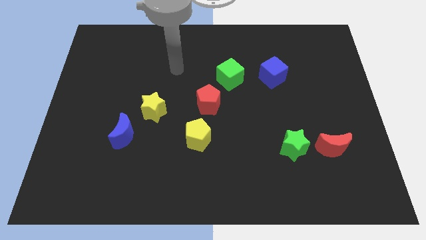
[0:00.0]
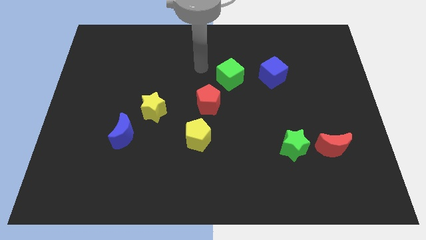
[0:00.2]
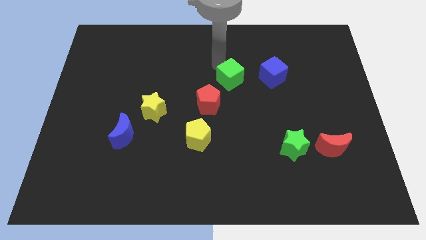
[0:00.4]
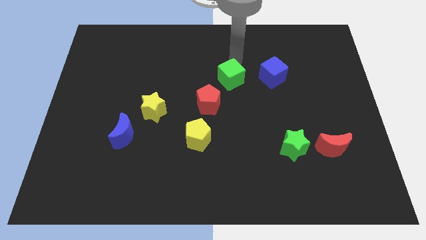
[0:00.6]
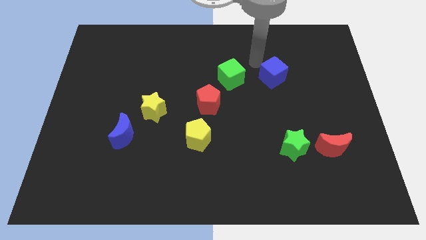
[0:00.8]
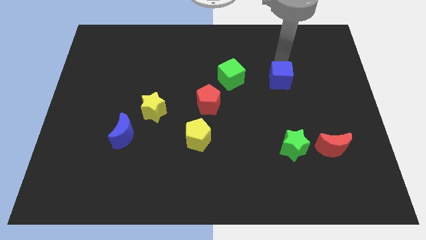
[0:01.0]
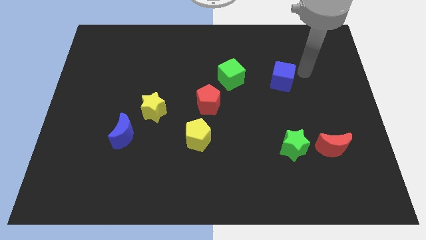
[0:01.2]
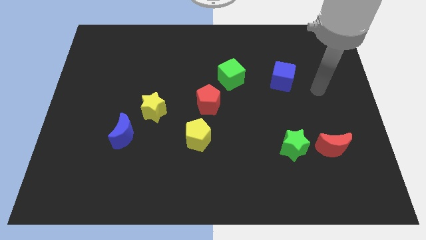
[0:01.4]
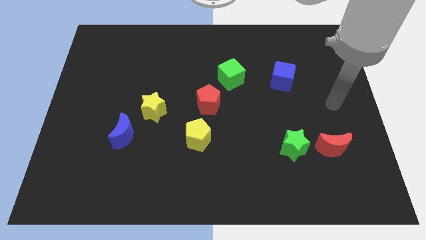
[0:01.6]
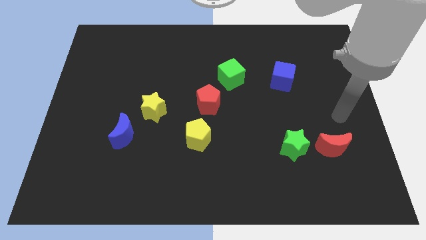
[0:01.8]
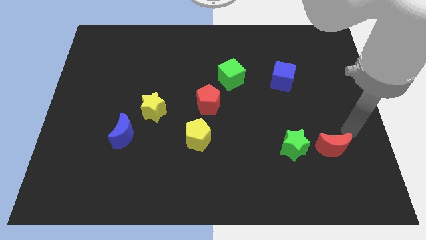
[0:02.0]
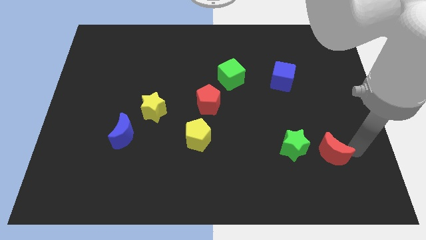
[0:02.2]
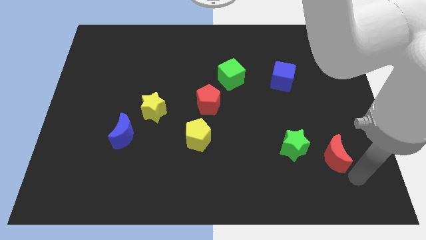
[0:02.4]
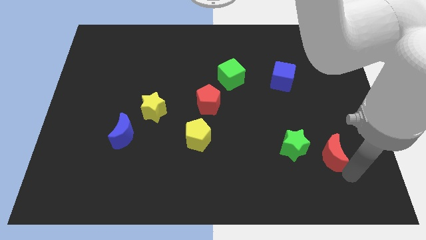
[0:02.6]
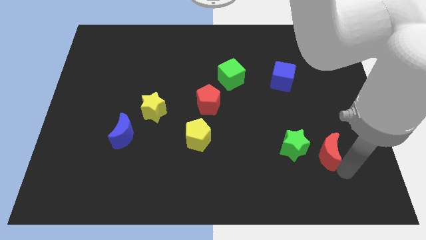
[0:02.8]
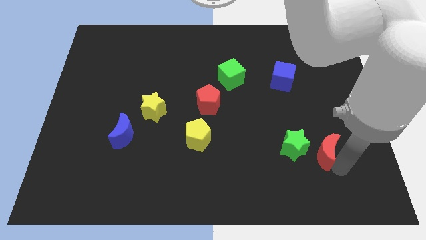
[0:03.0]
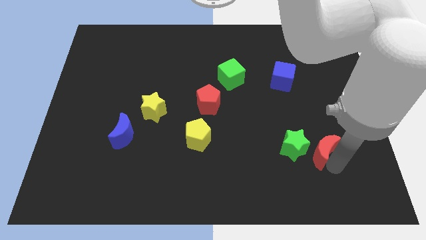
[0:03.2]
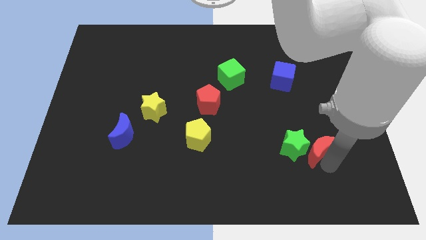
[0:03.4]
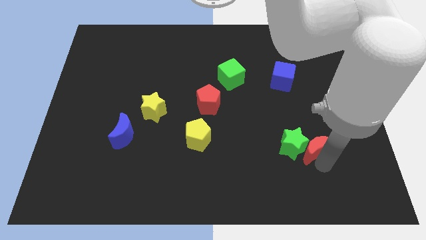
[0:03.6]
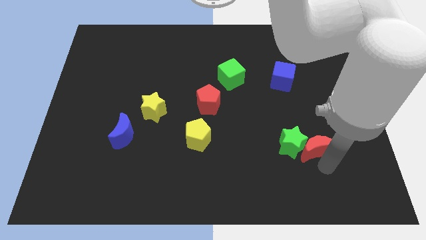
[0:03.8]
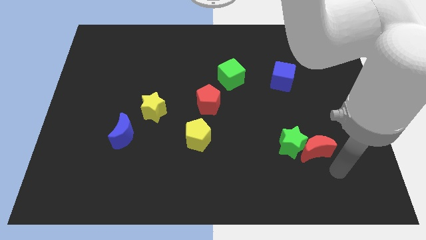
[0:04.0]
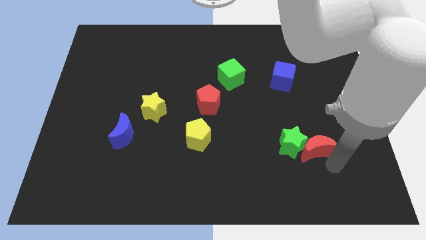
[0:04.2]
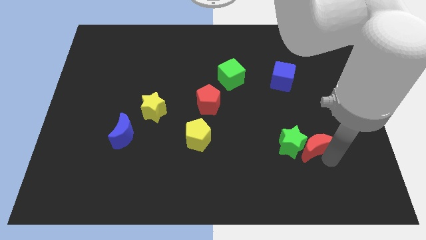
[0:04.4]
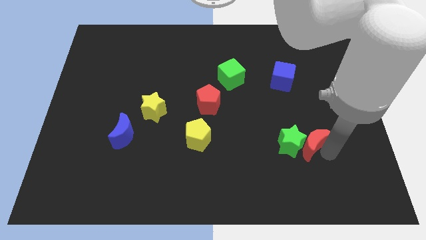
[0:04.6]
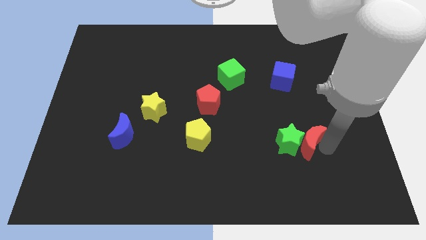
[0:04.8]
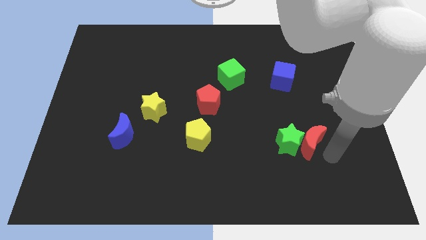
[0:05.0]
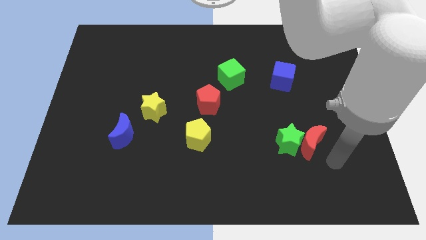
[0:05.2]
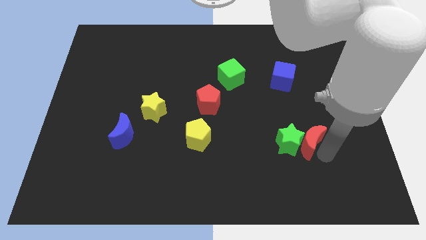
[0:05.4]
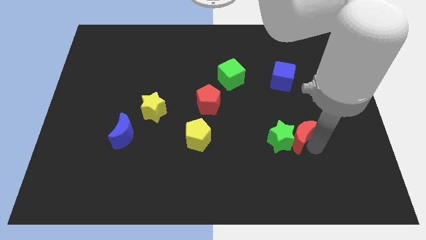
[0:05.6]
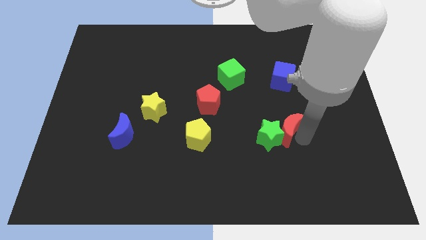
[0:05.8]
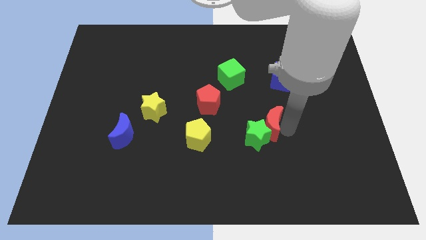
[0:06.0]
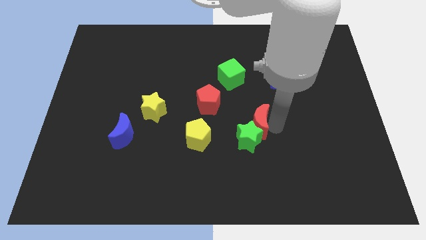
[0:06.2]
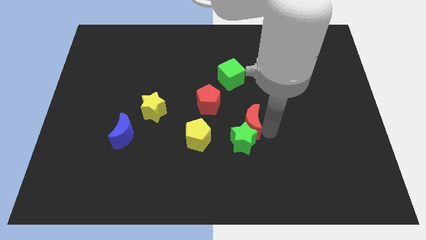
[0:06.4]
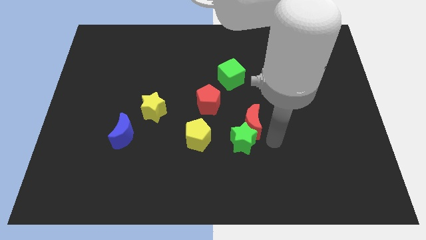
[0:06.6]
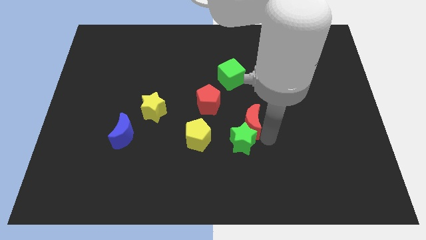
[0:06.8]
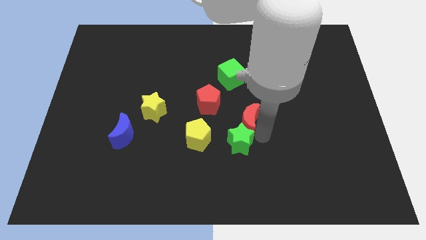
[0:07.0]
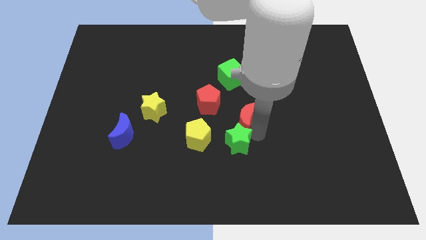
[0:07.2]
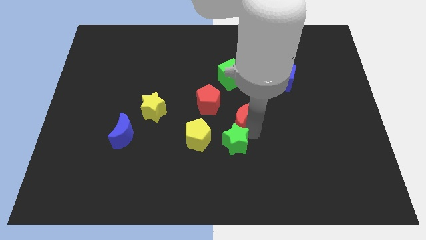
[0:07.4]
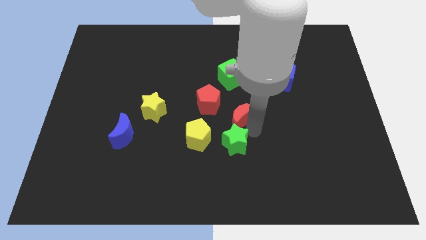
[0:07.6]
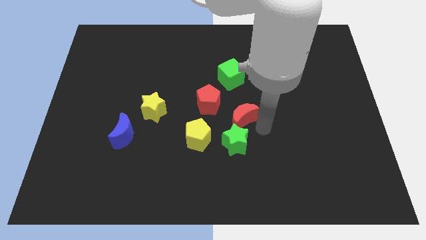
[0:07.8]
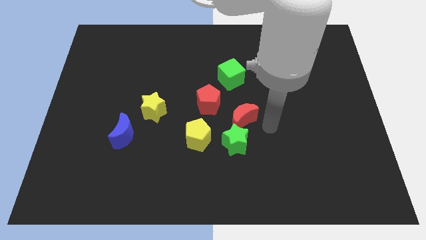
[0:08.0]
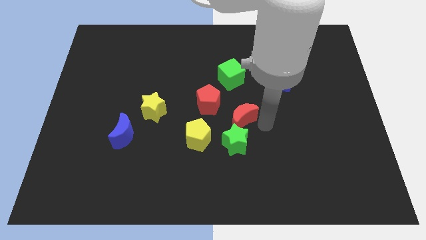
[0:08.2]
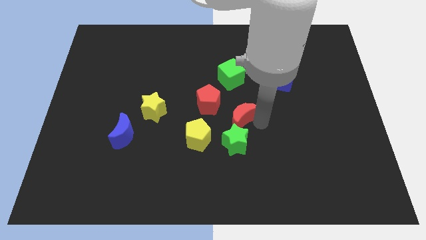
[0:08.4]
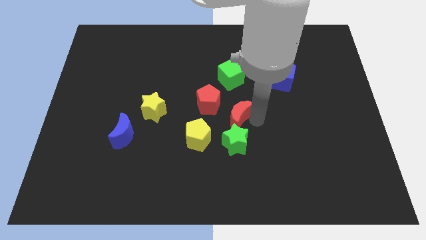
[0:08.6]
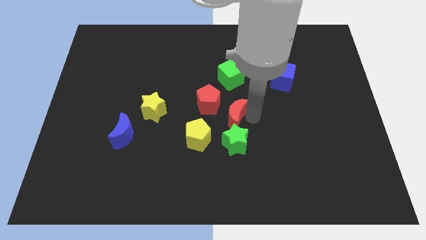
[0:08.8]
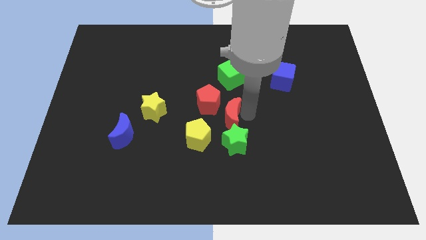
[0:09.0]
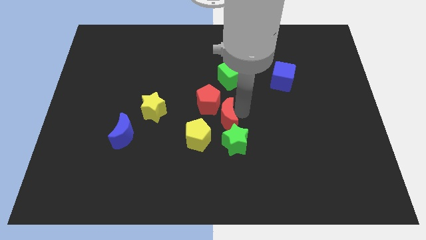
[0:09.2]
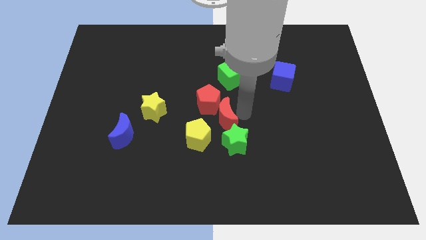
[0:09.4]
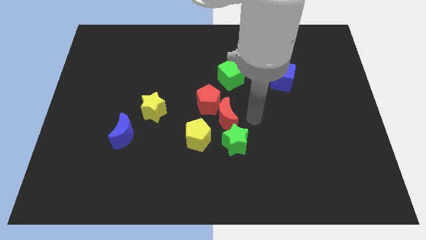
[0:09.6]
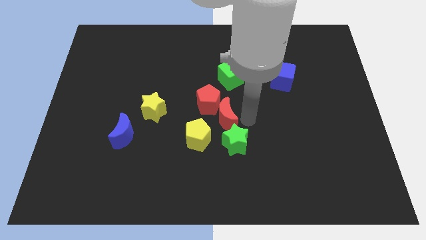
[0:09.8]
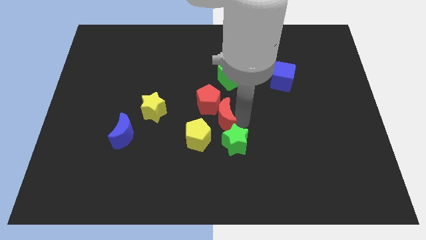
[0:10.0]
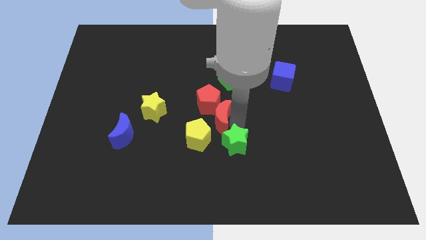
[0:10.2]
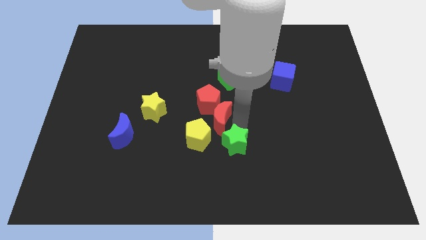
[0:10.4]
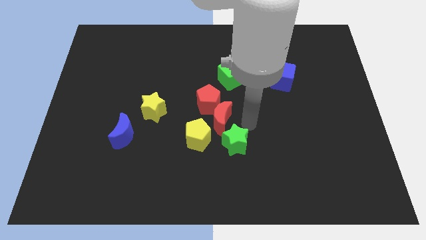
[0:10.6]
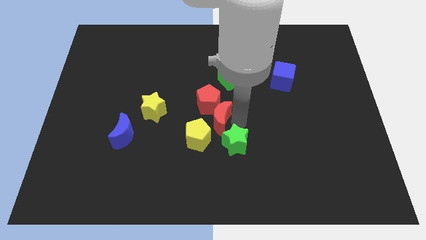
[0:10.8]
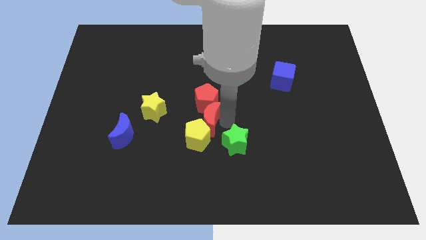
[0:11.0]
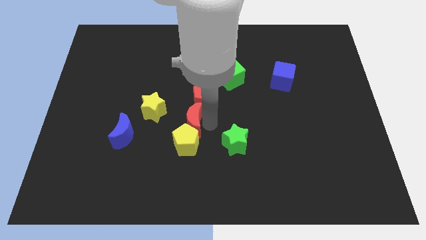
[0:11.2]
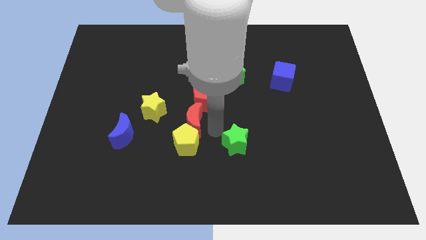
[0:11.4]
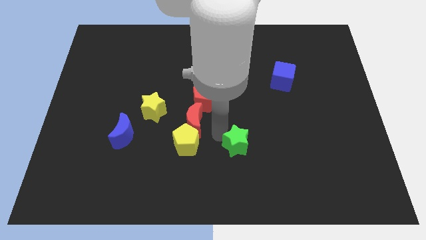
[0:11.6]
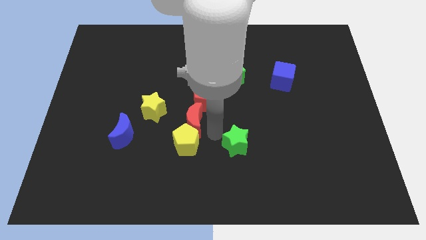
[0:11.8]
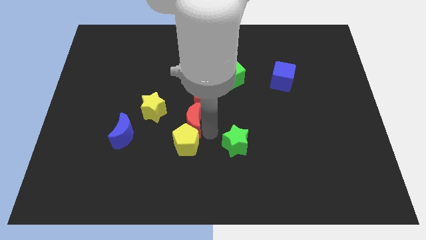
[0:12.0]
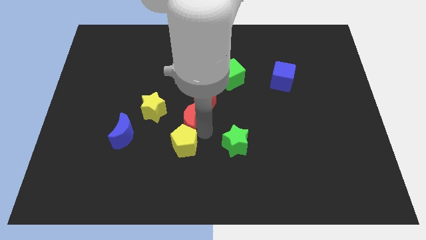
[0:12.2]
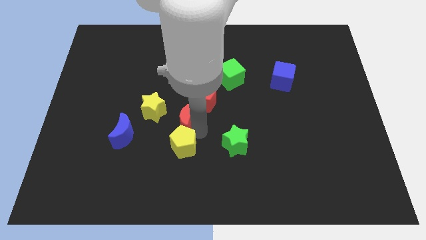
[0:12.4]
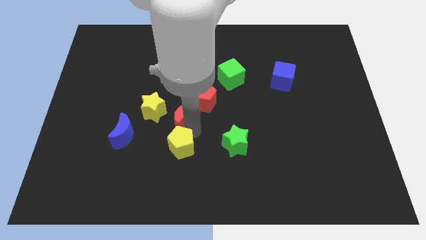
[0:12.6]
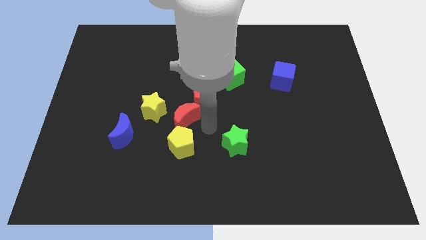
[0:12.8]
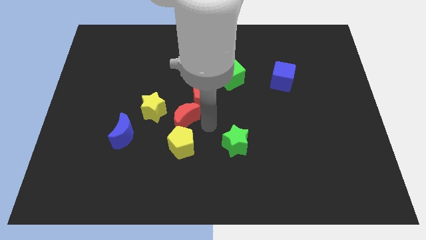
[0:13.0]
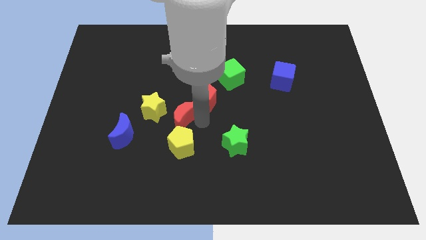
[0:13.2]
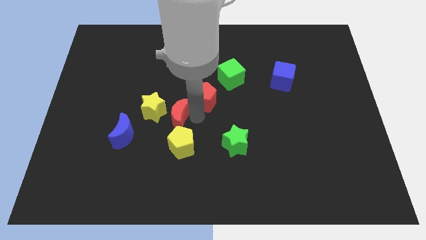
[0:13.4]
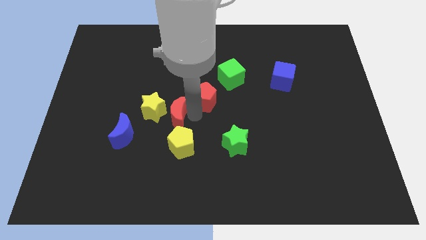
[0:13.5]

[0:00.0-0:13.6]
slide the red moon close to the yellow star
